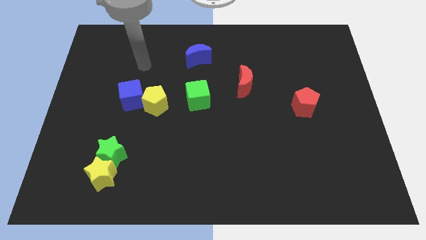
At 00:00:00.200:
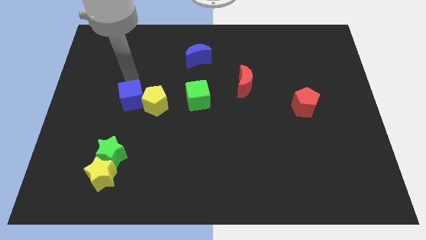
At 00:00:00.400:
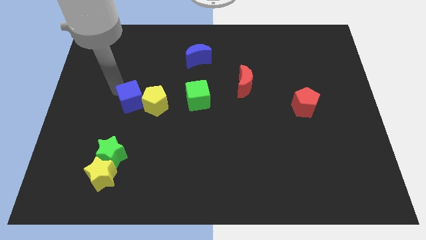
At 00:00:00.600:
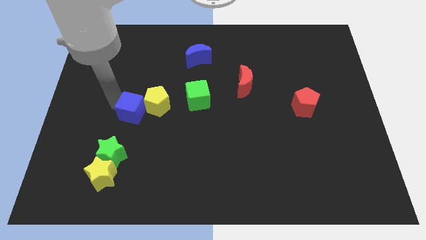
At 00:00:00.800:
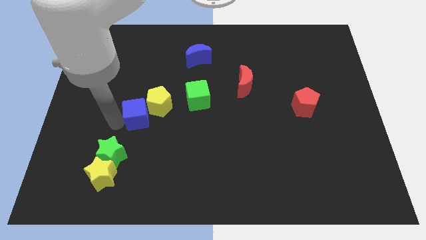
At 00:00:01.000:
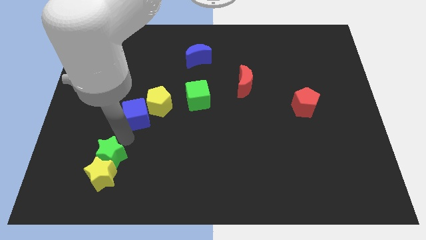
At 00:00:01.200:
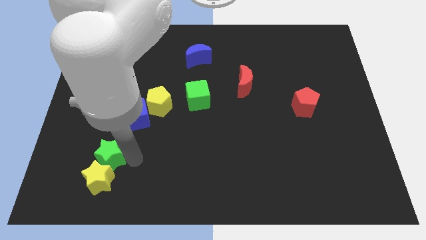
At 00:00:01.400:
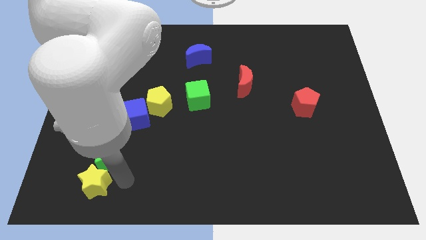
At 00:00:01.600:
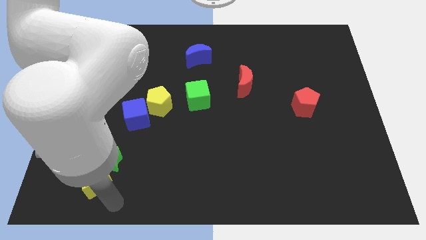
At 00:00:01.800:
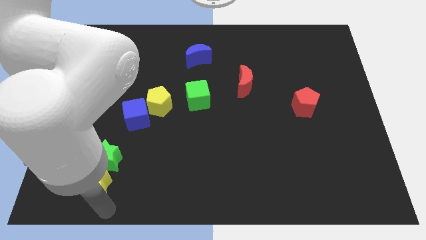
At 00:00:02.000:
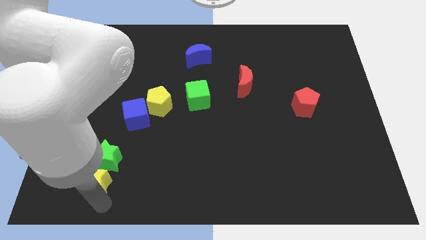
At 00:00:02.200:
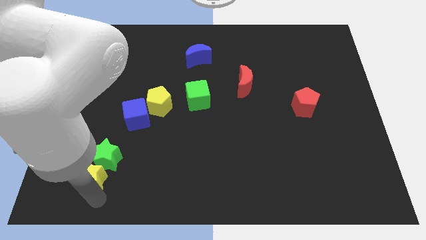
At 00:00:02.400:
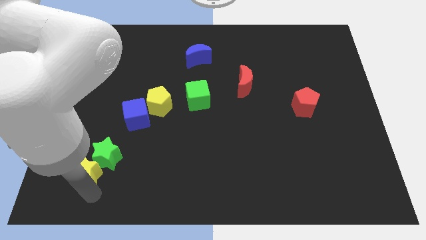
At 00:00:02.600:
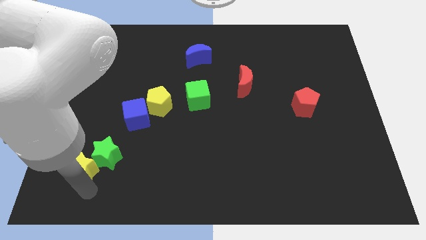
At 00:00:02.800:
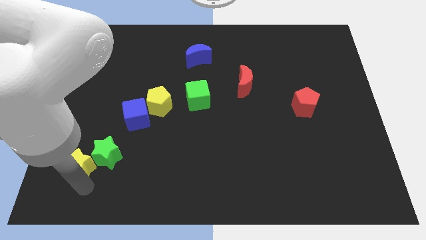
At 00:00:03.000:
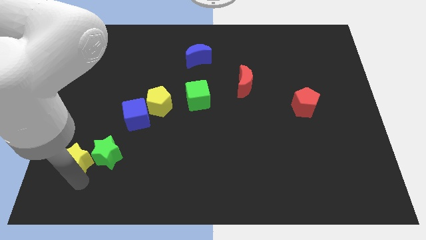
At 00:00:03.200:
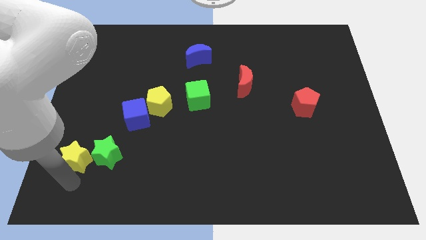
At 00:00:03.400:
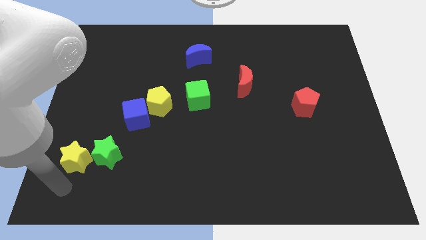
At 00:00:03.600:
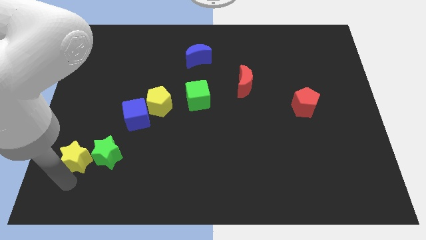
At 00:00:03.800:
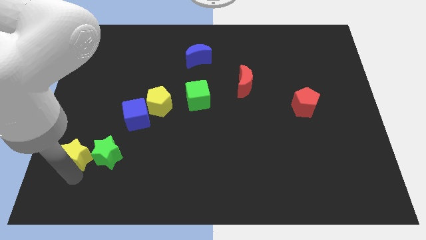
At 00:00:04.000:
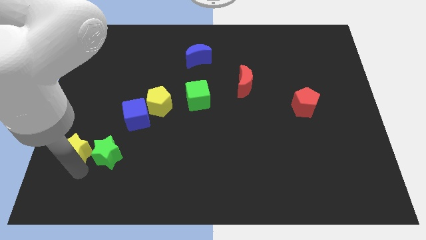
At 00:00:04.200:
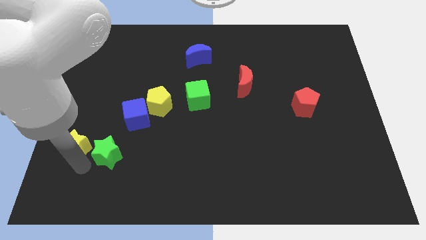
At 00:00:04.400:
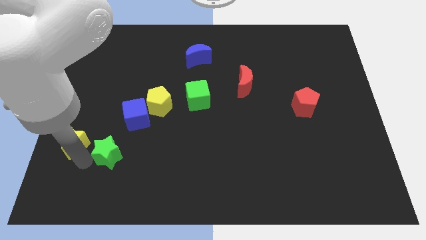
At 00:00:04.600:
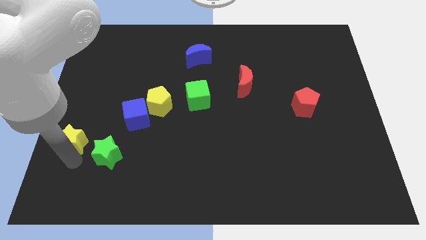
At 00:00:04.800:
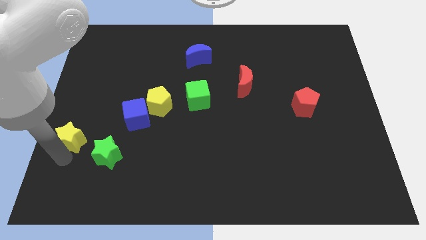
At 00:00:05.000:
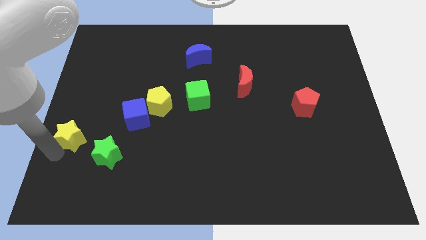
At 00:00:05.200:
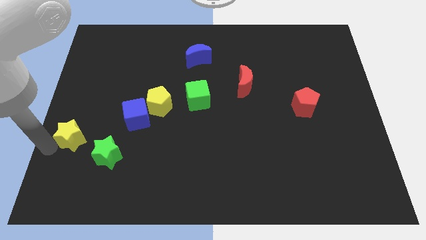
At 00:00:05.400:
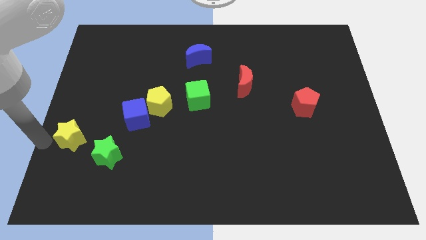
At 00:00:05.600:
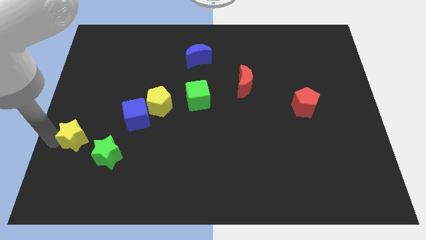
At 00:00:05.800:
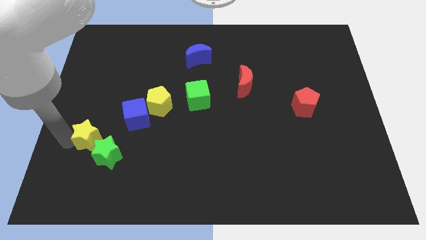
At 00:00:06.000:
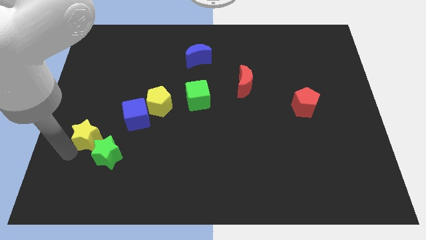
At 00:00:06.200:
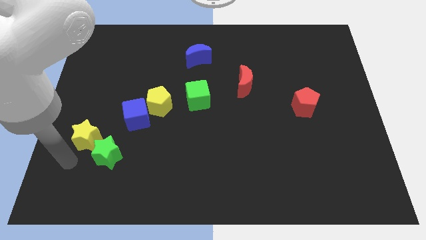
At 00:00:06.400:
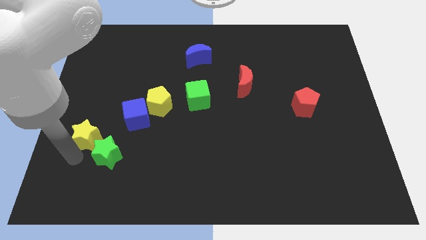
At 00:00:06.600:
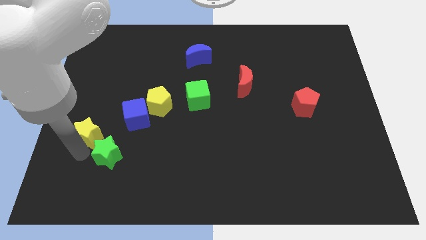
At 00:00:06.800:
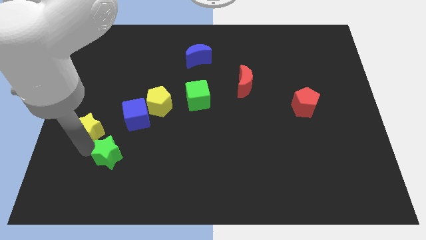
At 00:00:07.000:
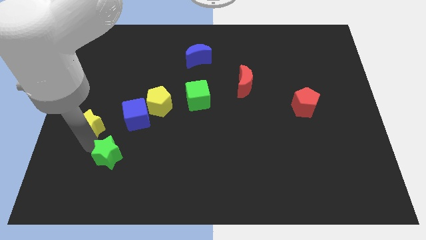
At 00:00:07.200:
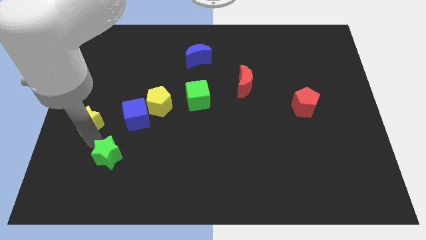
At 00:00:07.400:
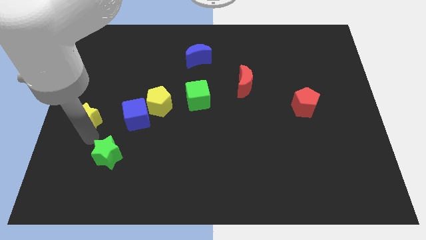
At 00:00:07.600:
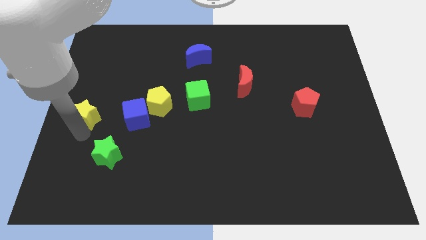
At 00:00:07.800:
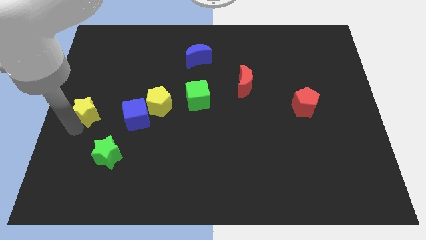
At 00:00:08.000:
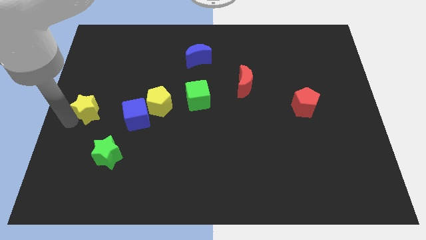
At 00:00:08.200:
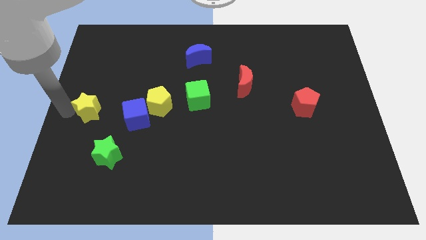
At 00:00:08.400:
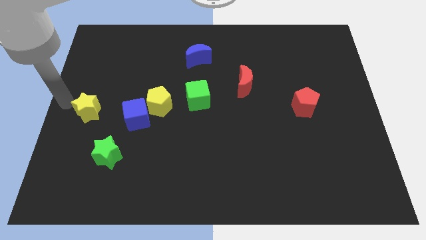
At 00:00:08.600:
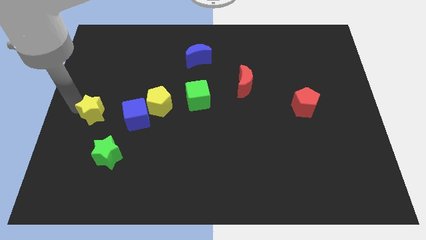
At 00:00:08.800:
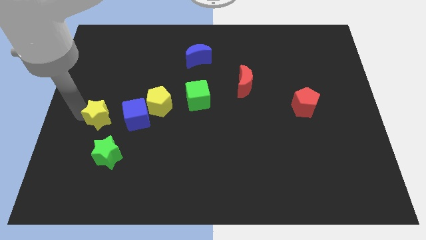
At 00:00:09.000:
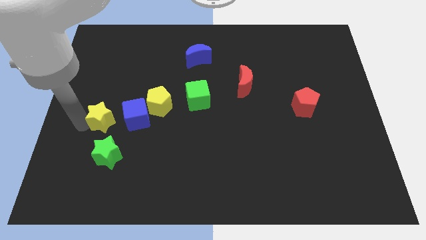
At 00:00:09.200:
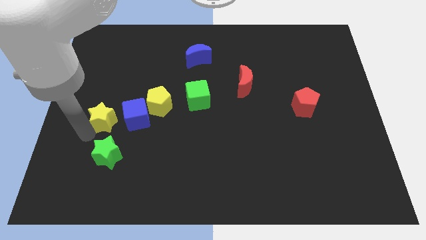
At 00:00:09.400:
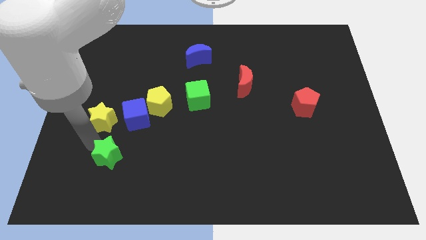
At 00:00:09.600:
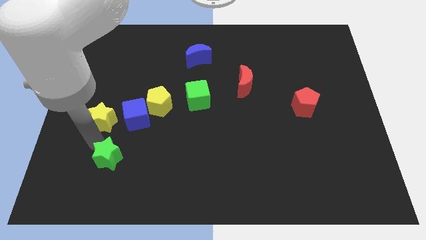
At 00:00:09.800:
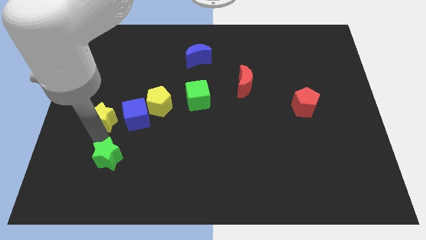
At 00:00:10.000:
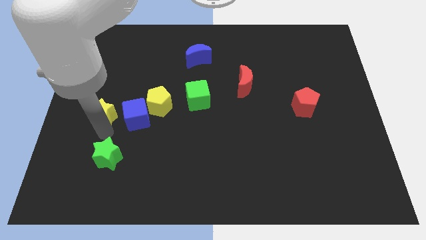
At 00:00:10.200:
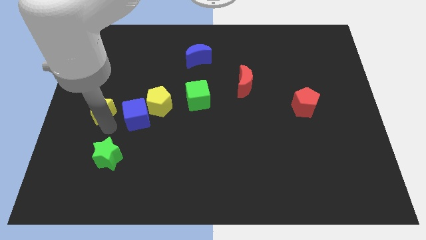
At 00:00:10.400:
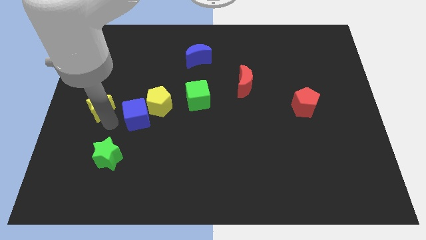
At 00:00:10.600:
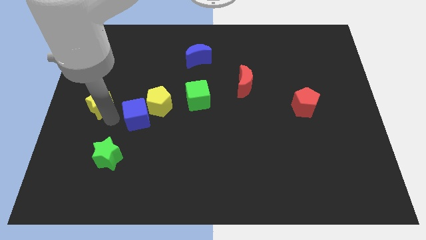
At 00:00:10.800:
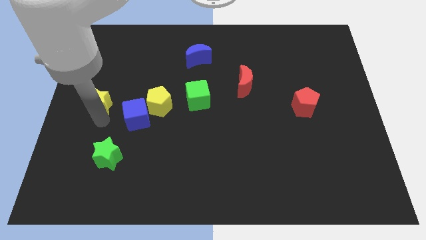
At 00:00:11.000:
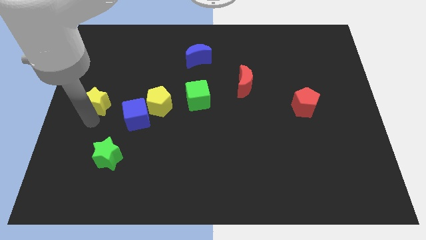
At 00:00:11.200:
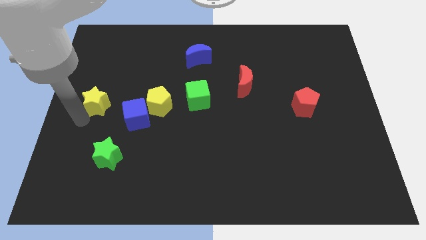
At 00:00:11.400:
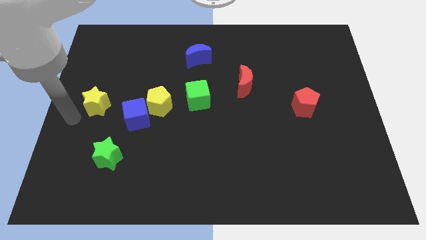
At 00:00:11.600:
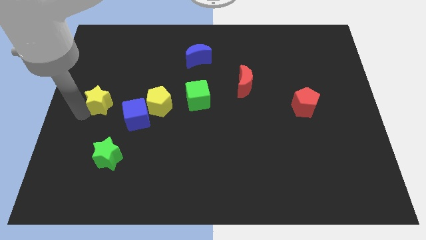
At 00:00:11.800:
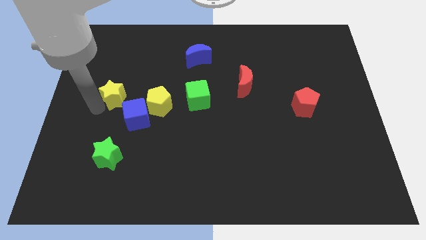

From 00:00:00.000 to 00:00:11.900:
move the yellow star up

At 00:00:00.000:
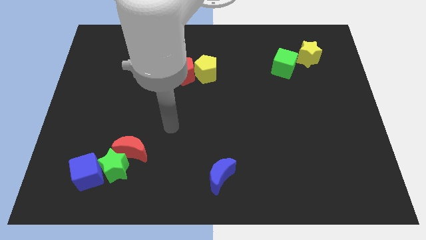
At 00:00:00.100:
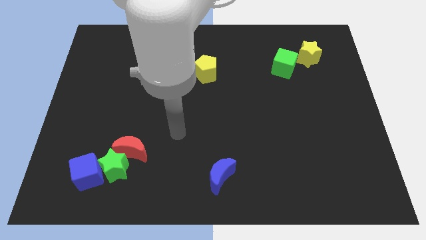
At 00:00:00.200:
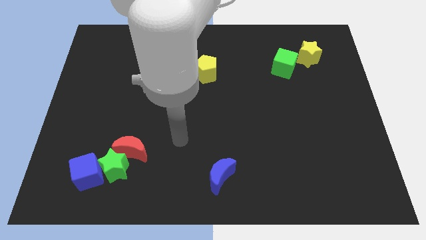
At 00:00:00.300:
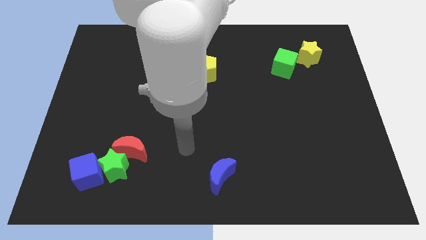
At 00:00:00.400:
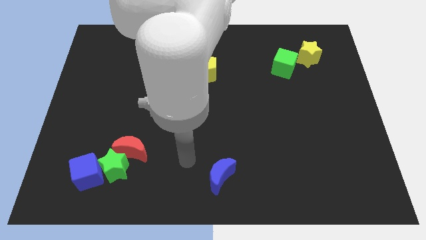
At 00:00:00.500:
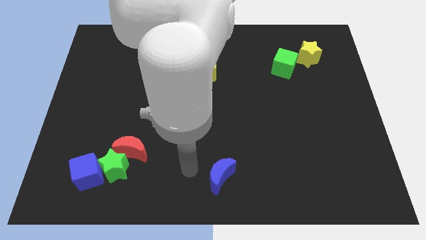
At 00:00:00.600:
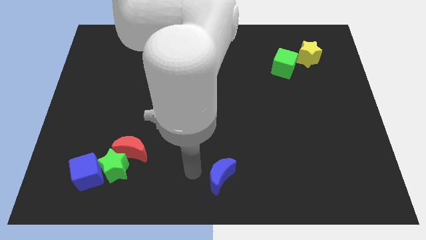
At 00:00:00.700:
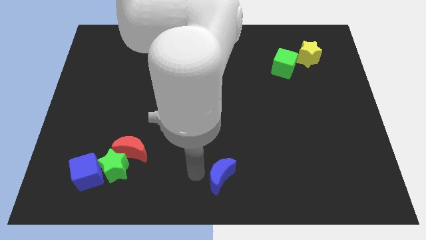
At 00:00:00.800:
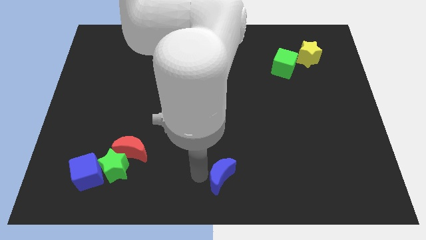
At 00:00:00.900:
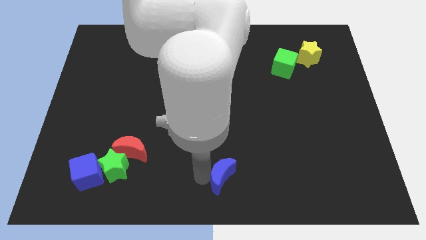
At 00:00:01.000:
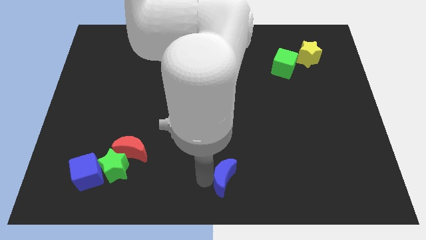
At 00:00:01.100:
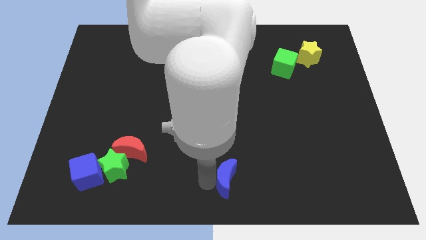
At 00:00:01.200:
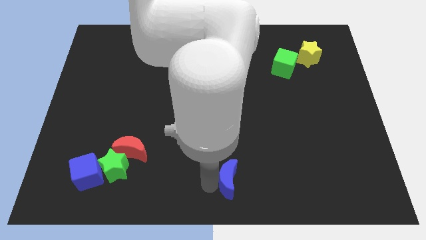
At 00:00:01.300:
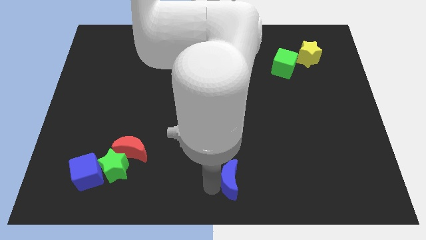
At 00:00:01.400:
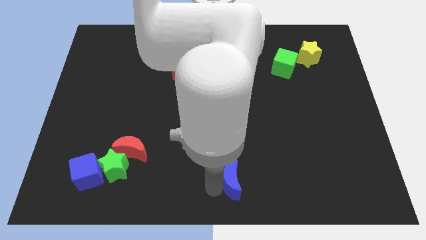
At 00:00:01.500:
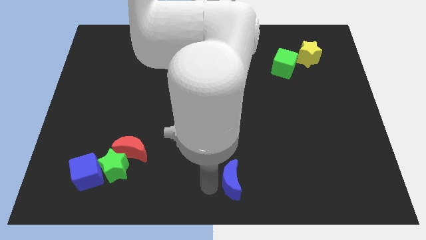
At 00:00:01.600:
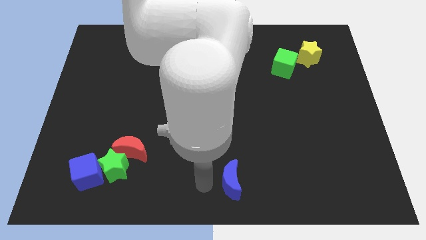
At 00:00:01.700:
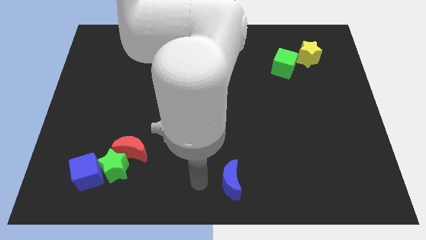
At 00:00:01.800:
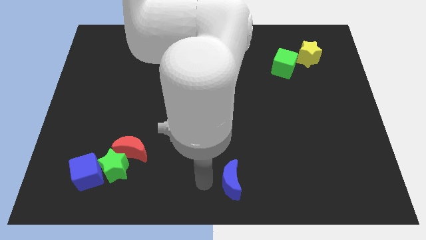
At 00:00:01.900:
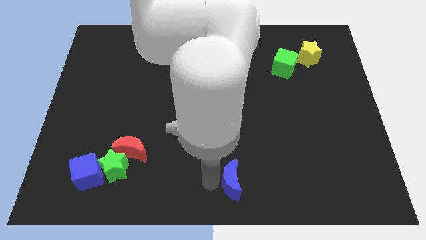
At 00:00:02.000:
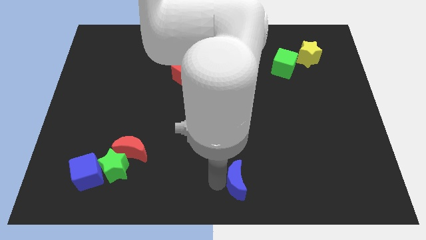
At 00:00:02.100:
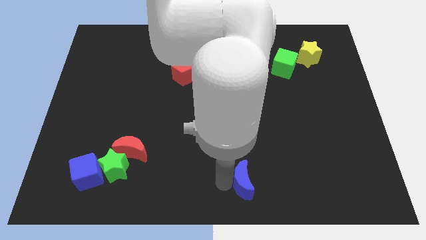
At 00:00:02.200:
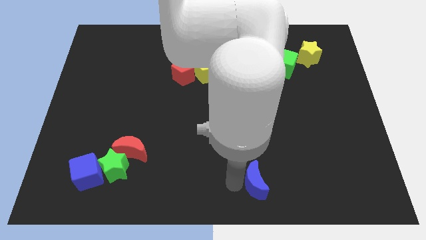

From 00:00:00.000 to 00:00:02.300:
slightly move the blue moon right
